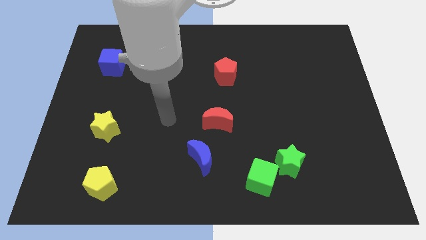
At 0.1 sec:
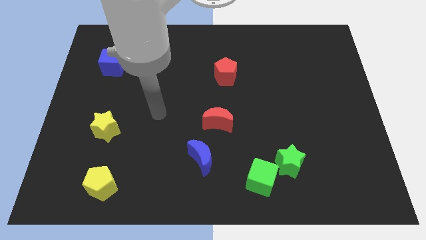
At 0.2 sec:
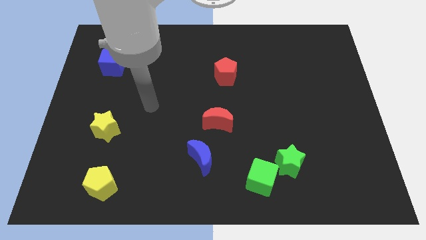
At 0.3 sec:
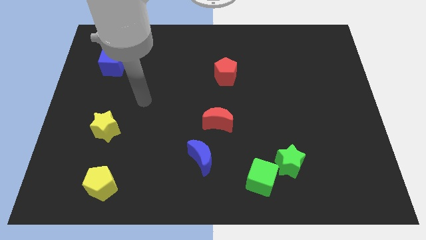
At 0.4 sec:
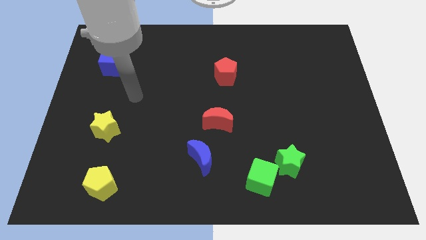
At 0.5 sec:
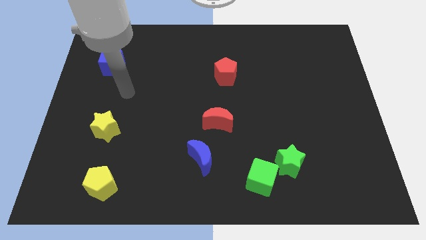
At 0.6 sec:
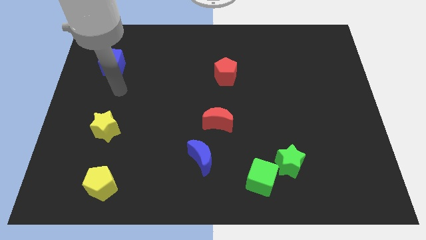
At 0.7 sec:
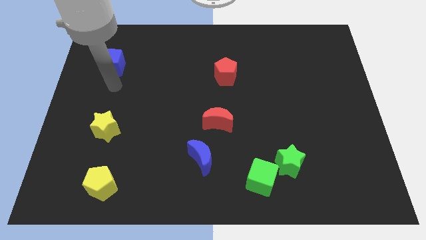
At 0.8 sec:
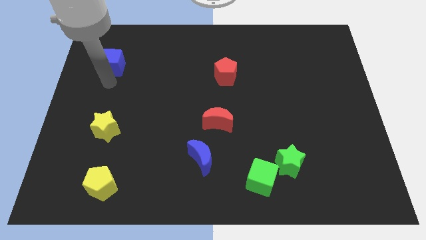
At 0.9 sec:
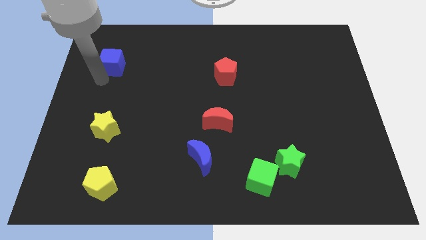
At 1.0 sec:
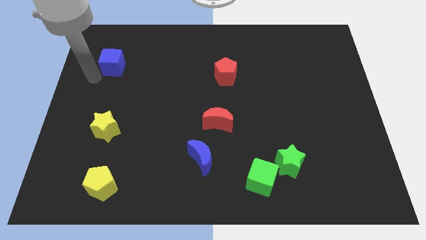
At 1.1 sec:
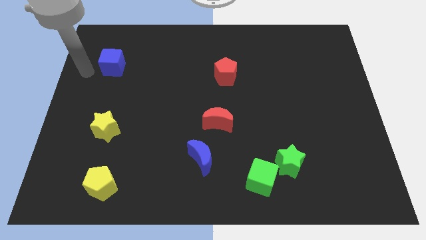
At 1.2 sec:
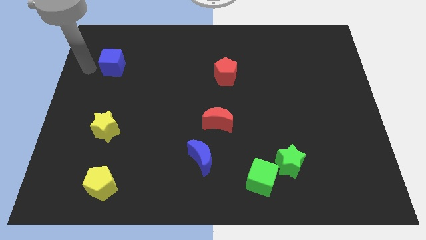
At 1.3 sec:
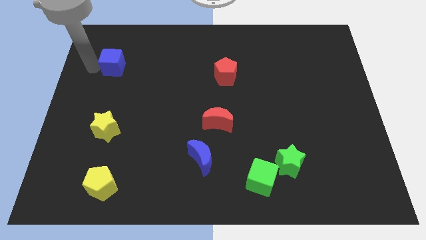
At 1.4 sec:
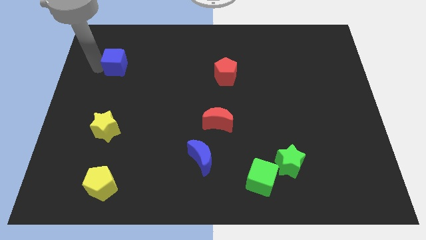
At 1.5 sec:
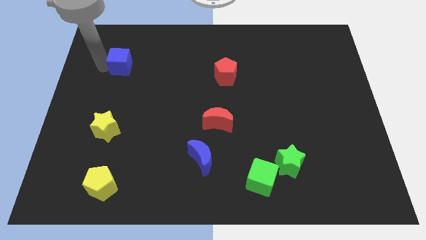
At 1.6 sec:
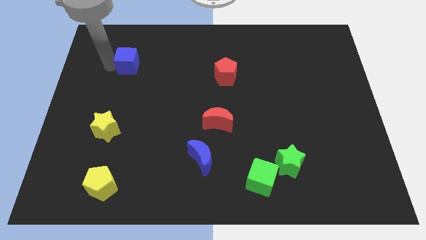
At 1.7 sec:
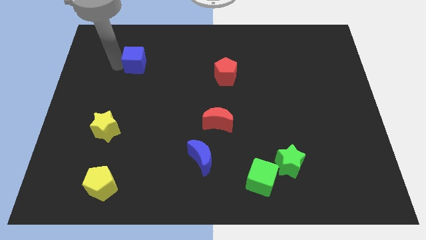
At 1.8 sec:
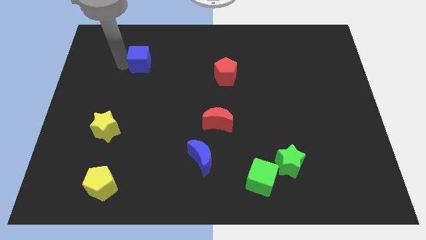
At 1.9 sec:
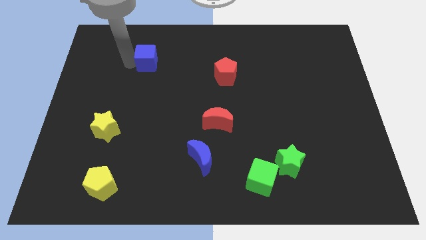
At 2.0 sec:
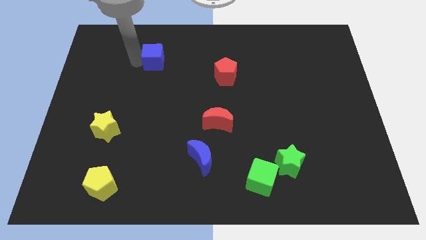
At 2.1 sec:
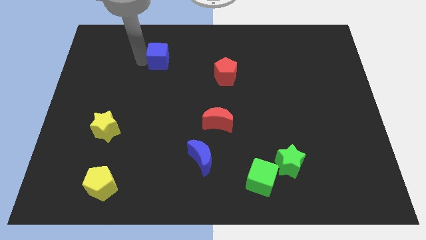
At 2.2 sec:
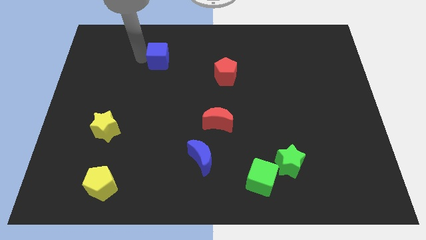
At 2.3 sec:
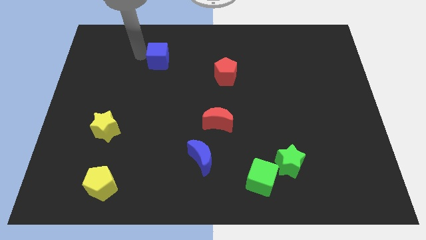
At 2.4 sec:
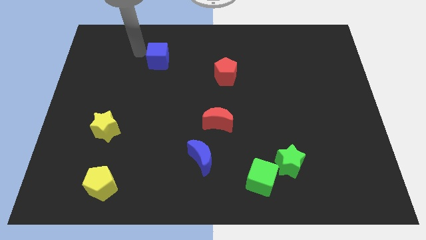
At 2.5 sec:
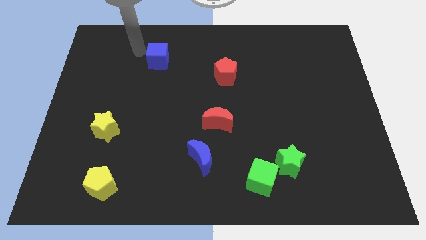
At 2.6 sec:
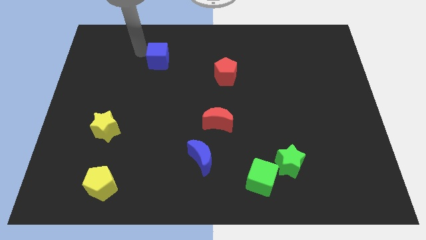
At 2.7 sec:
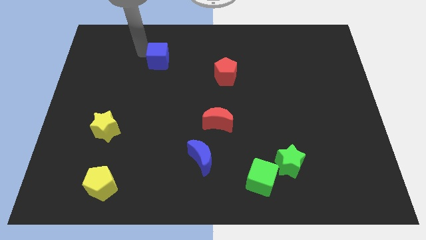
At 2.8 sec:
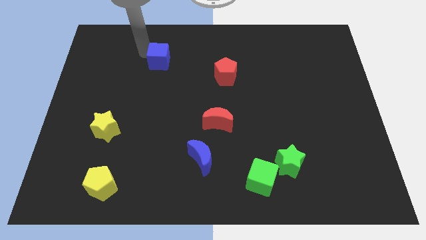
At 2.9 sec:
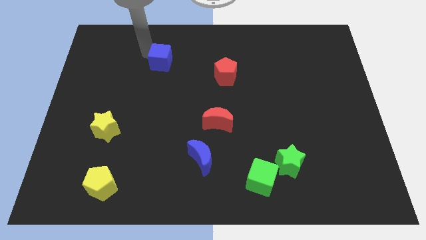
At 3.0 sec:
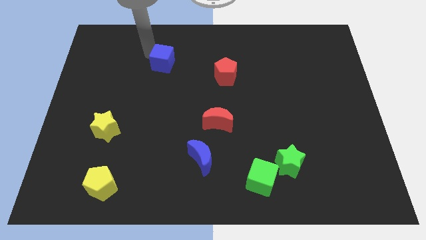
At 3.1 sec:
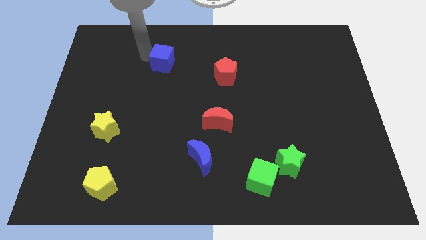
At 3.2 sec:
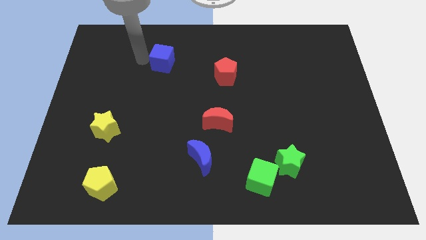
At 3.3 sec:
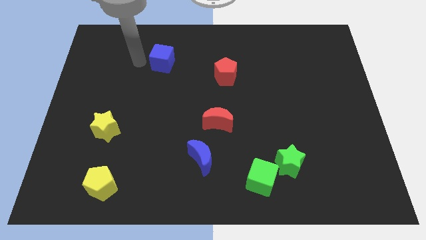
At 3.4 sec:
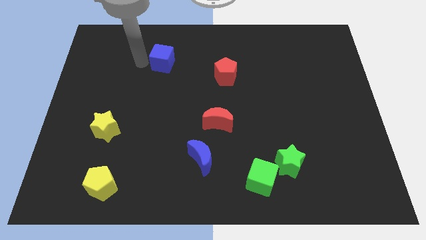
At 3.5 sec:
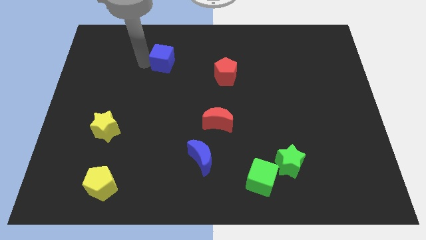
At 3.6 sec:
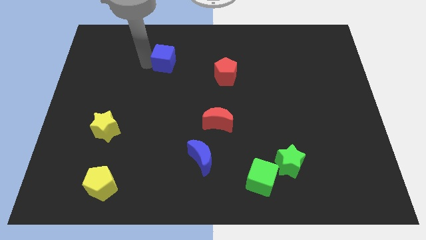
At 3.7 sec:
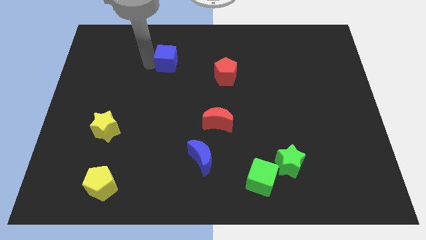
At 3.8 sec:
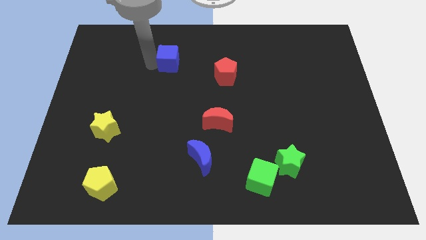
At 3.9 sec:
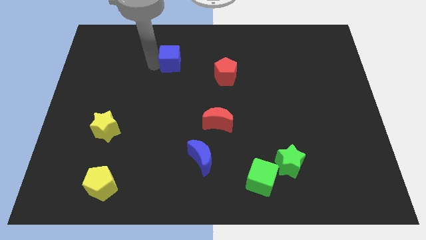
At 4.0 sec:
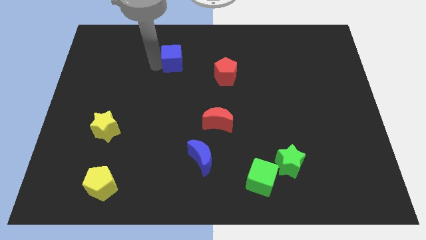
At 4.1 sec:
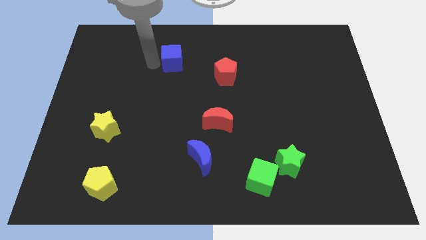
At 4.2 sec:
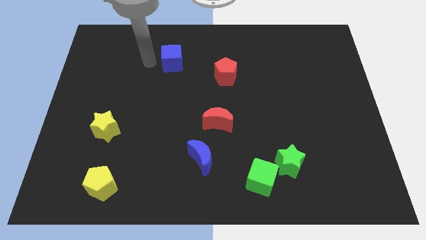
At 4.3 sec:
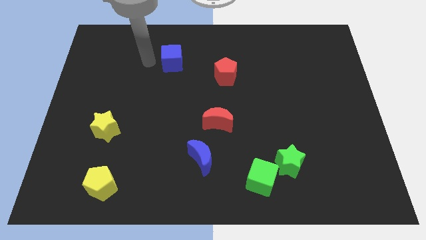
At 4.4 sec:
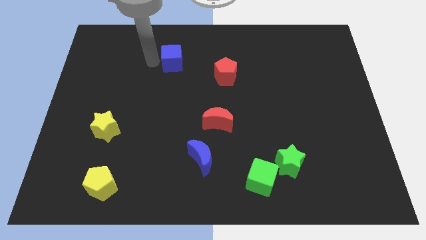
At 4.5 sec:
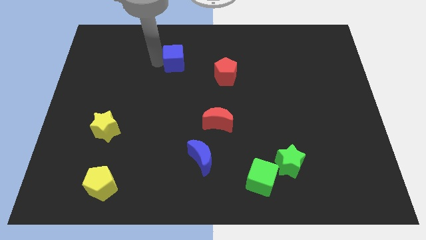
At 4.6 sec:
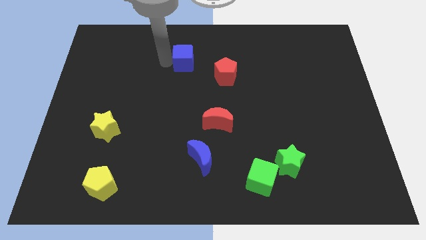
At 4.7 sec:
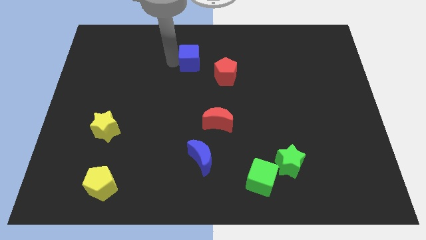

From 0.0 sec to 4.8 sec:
slide the blue cube to the top left side of the red pentagon

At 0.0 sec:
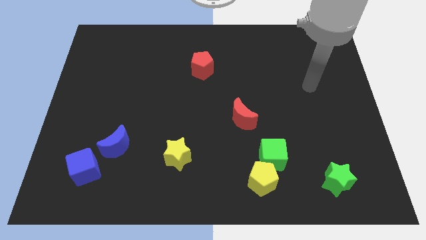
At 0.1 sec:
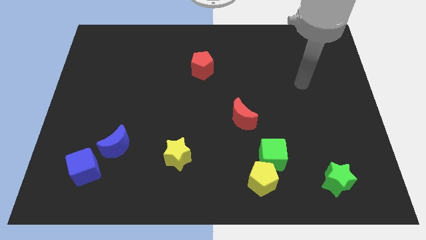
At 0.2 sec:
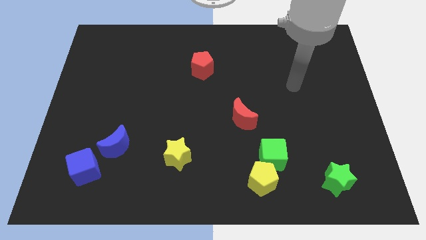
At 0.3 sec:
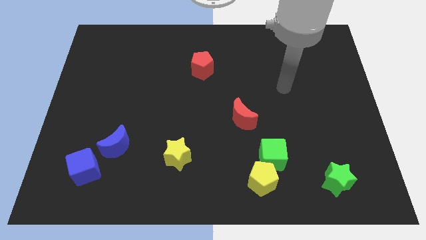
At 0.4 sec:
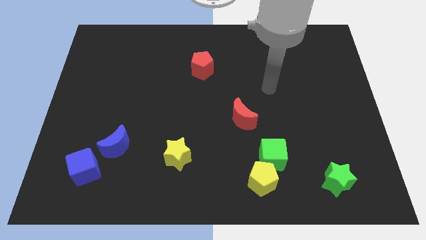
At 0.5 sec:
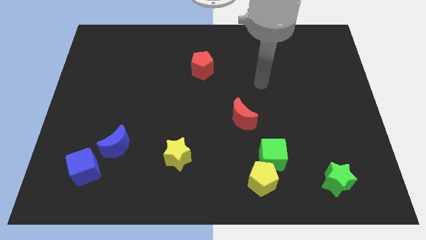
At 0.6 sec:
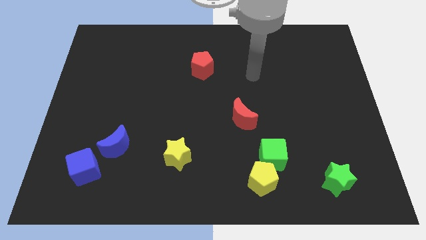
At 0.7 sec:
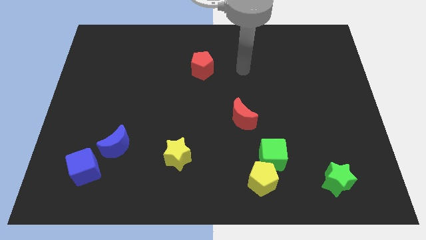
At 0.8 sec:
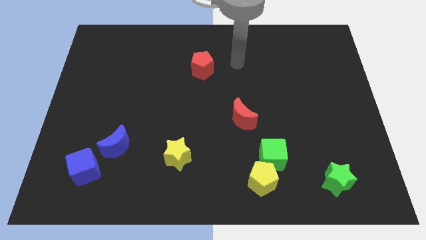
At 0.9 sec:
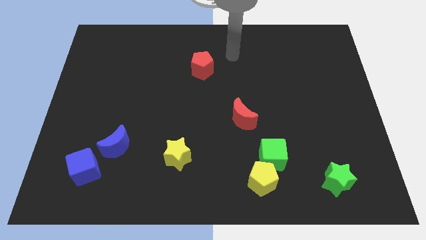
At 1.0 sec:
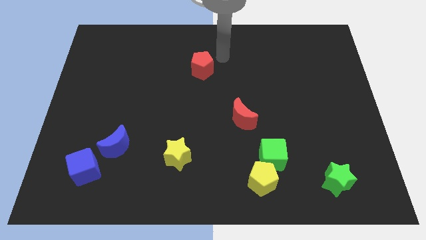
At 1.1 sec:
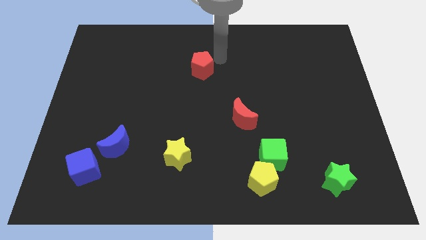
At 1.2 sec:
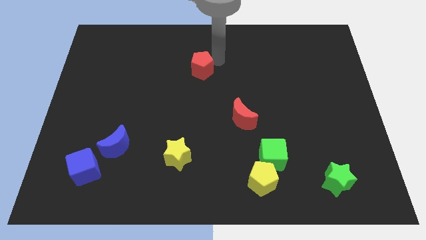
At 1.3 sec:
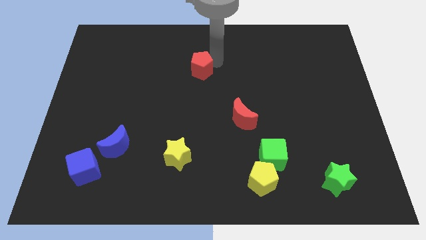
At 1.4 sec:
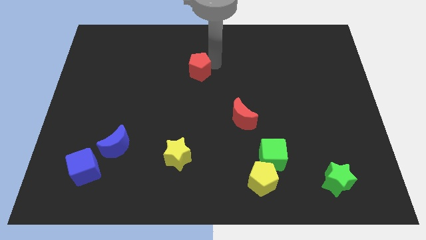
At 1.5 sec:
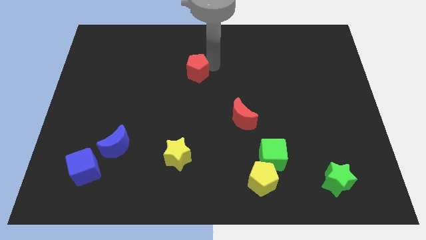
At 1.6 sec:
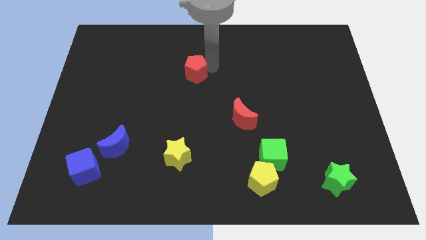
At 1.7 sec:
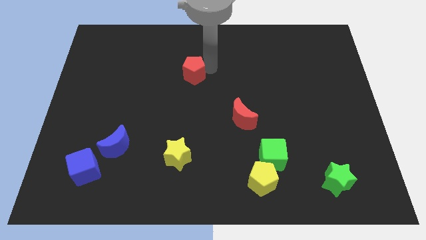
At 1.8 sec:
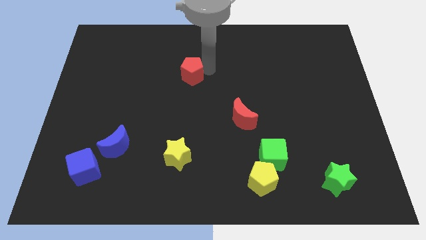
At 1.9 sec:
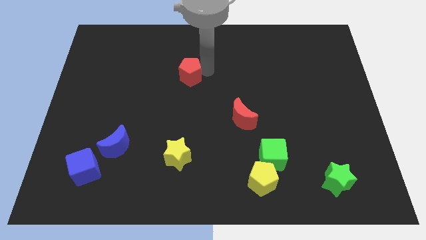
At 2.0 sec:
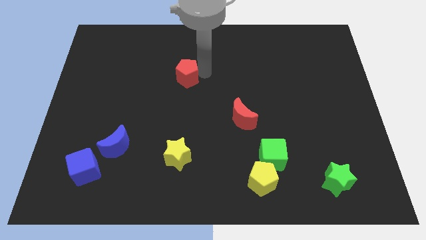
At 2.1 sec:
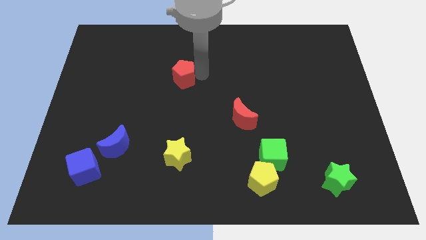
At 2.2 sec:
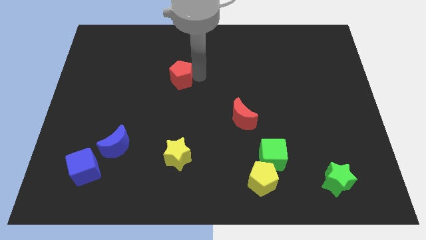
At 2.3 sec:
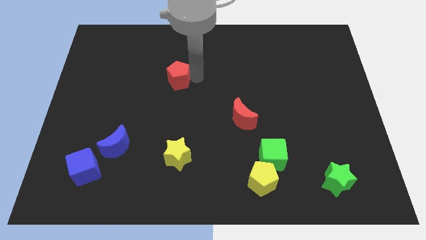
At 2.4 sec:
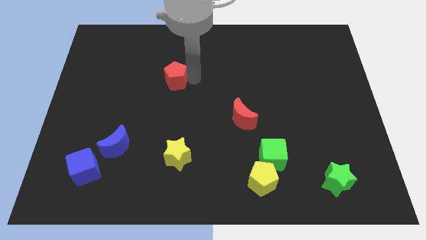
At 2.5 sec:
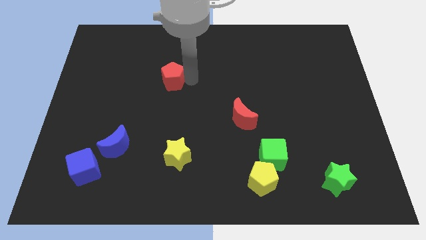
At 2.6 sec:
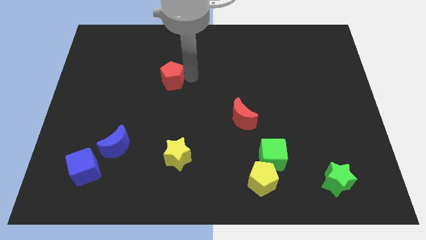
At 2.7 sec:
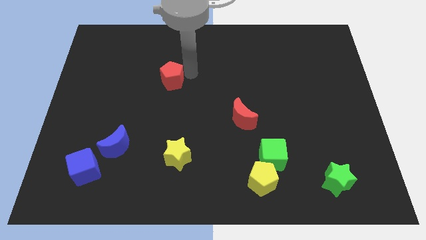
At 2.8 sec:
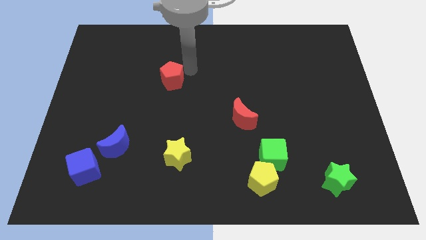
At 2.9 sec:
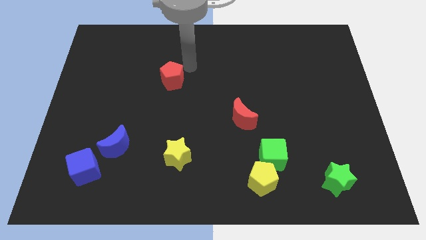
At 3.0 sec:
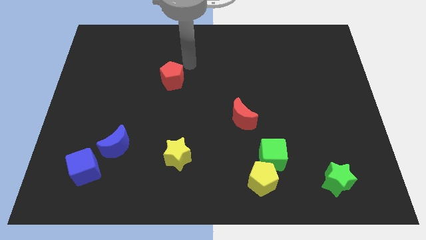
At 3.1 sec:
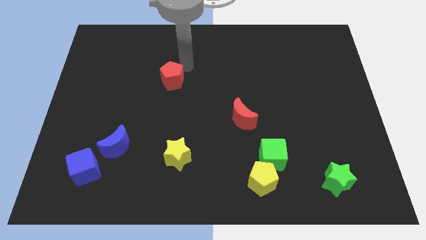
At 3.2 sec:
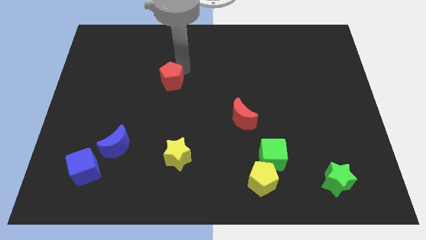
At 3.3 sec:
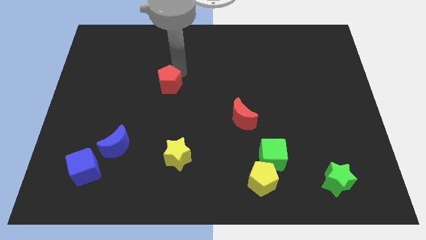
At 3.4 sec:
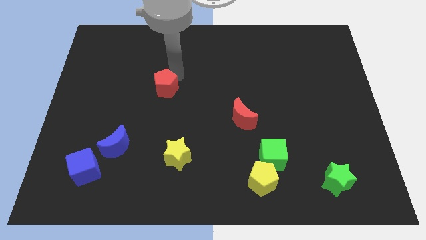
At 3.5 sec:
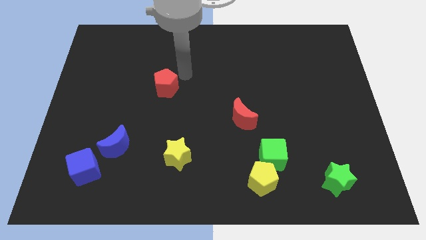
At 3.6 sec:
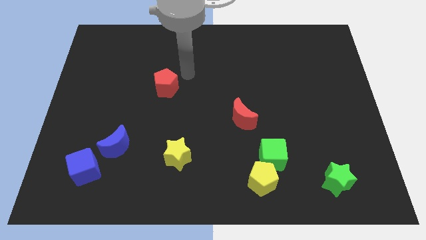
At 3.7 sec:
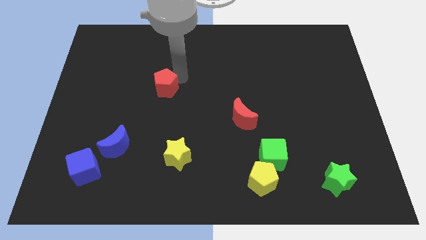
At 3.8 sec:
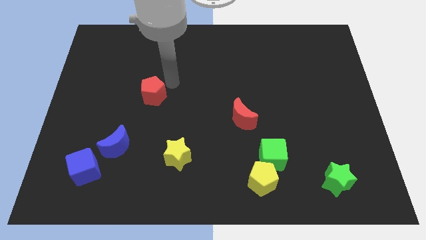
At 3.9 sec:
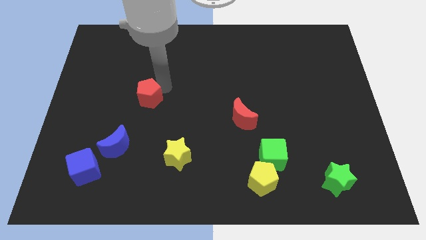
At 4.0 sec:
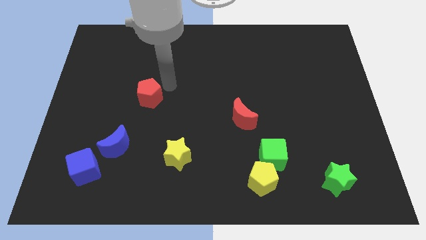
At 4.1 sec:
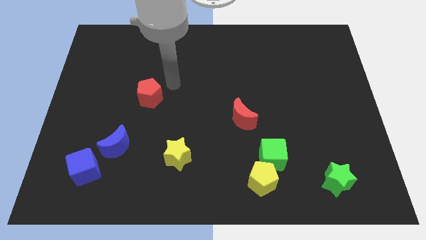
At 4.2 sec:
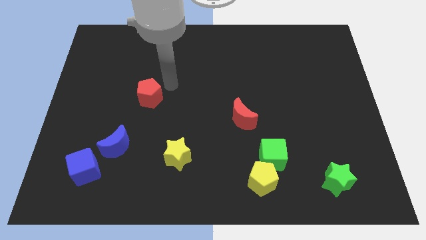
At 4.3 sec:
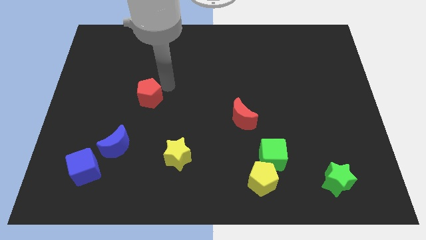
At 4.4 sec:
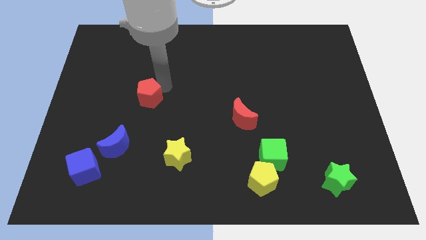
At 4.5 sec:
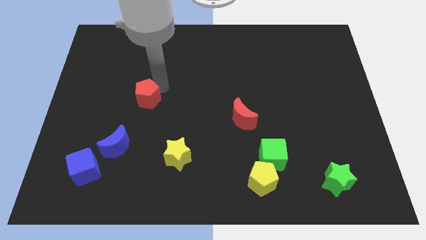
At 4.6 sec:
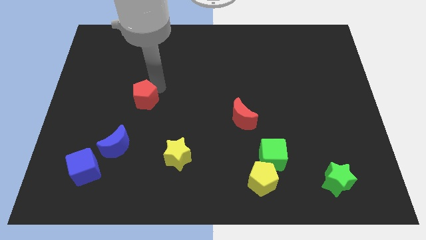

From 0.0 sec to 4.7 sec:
put the red pentagon to the top side of the blue moon
